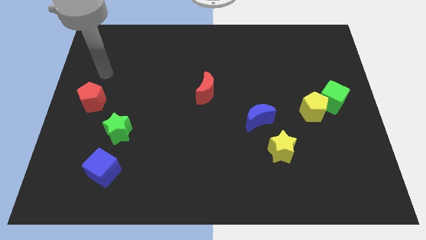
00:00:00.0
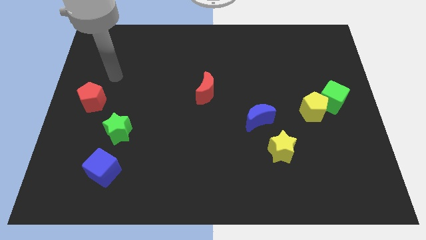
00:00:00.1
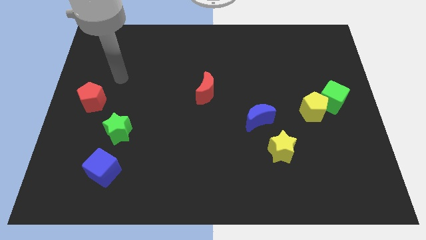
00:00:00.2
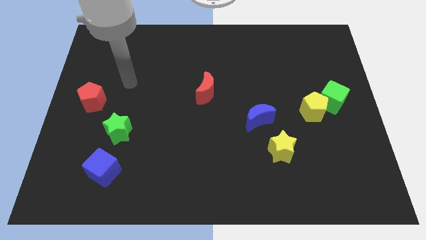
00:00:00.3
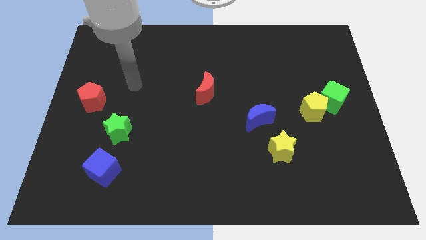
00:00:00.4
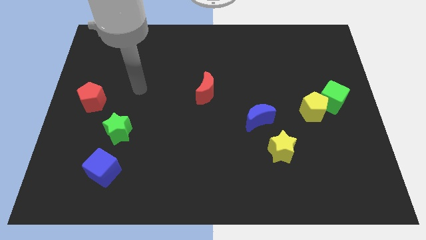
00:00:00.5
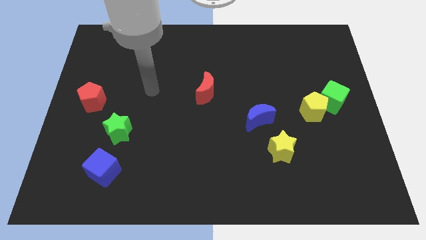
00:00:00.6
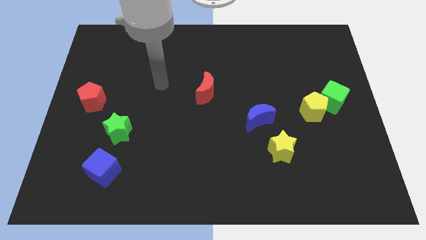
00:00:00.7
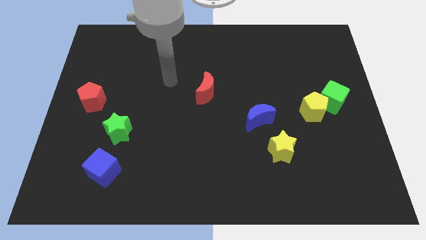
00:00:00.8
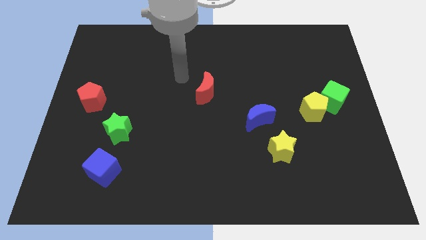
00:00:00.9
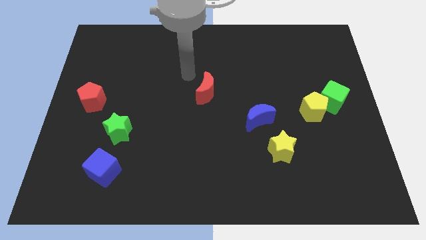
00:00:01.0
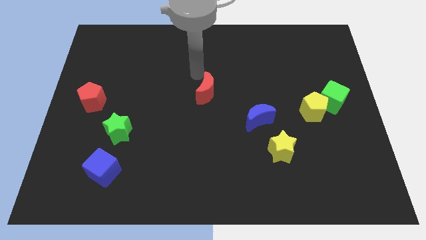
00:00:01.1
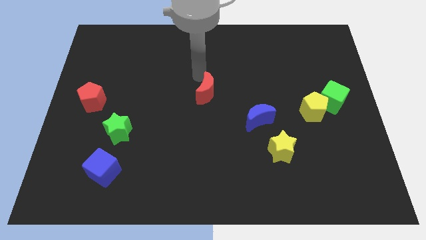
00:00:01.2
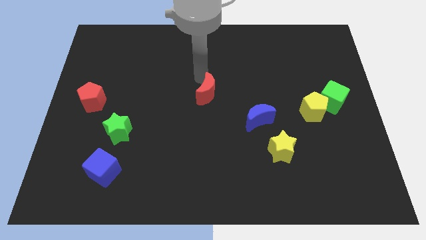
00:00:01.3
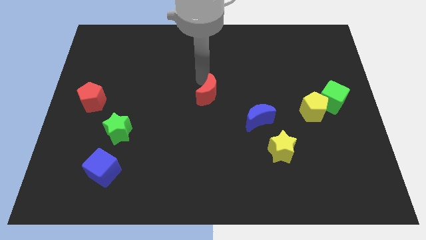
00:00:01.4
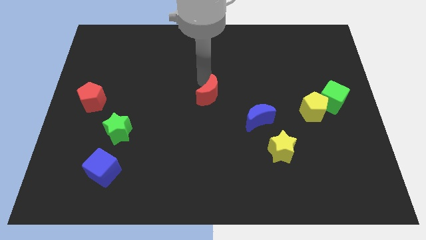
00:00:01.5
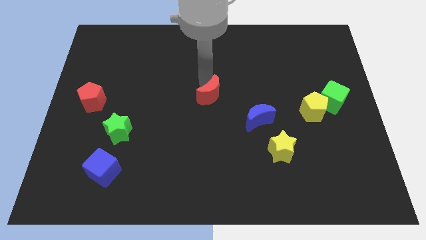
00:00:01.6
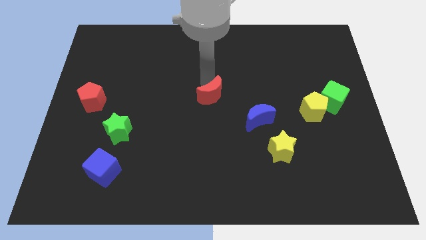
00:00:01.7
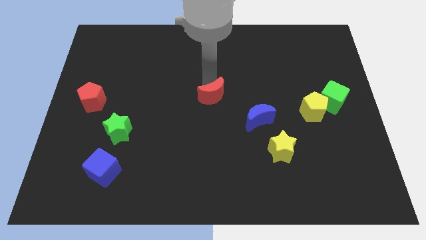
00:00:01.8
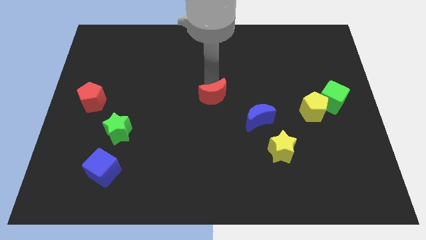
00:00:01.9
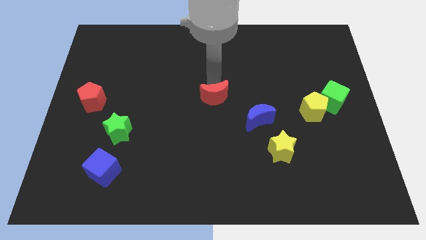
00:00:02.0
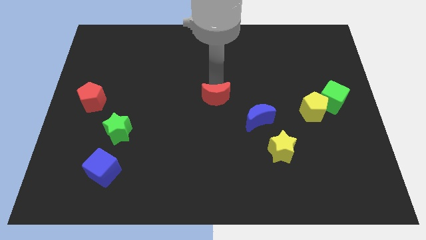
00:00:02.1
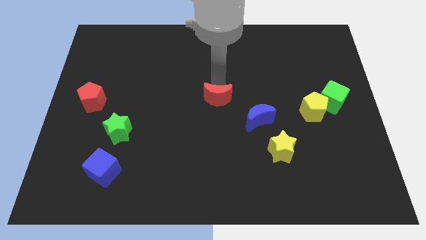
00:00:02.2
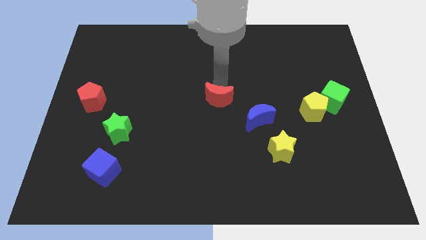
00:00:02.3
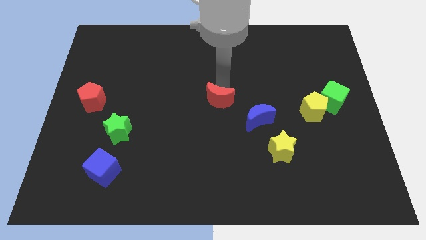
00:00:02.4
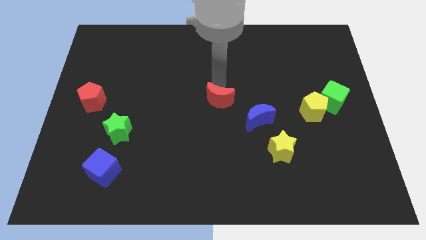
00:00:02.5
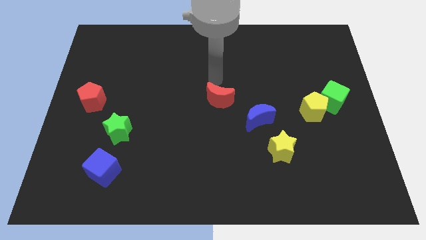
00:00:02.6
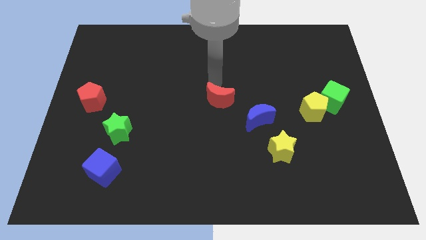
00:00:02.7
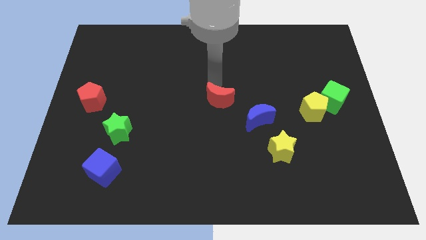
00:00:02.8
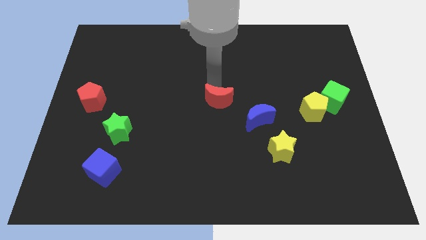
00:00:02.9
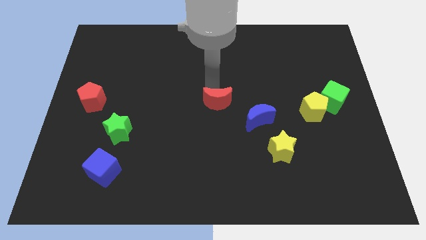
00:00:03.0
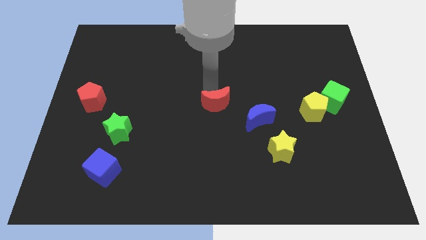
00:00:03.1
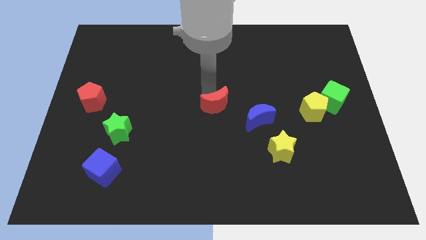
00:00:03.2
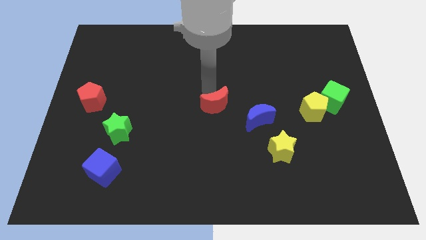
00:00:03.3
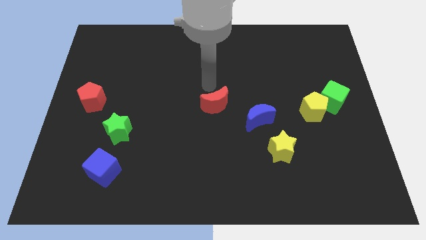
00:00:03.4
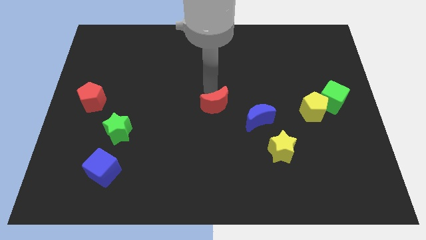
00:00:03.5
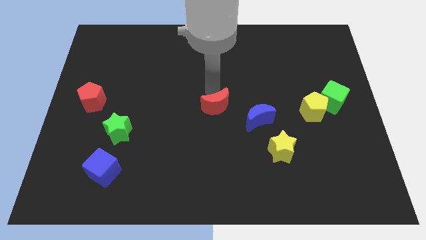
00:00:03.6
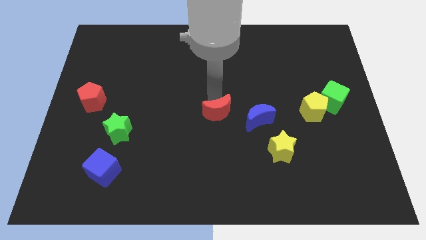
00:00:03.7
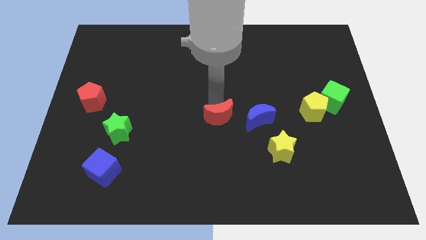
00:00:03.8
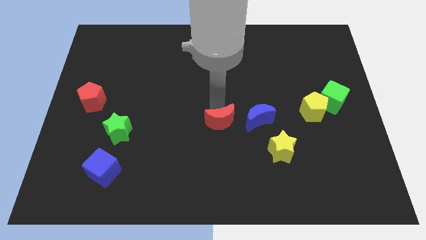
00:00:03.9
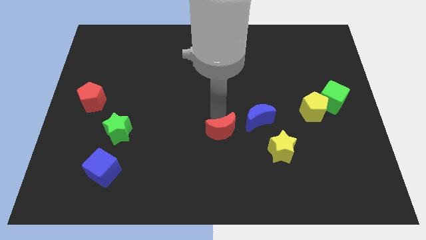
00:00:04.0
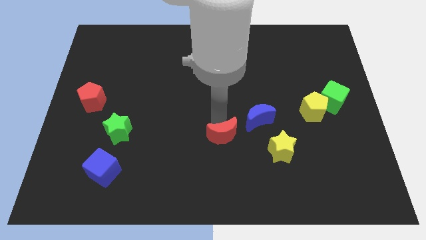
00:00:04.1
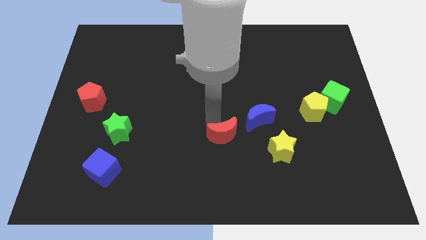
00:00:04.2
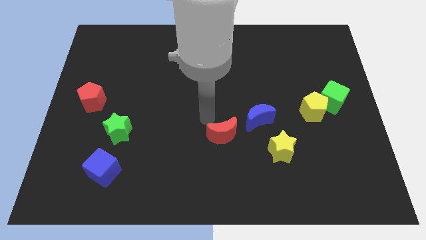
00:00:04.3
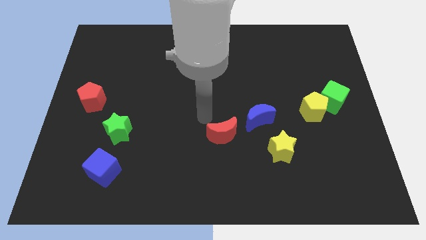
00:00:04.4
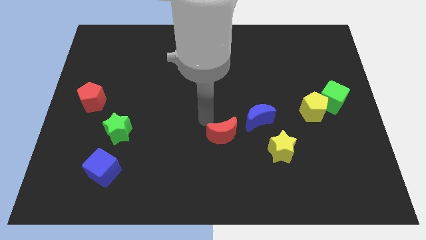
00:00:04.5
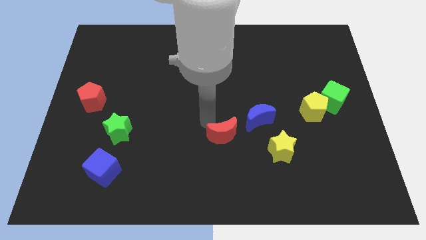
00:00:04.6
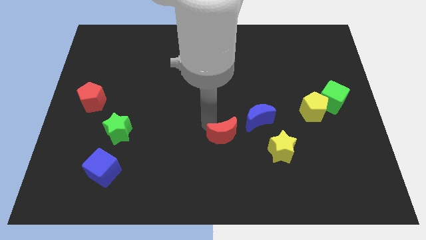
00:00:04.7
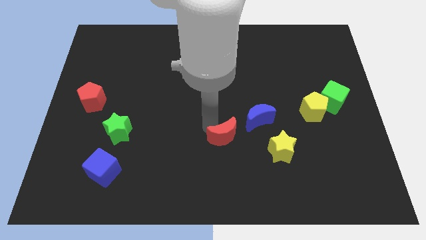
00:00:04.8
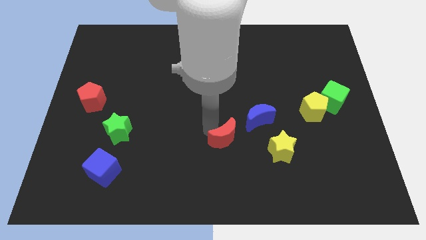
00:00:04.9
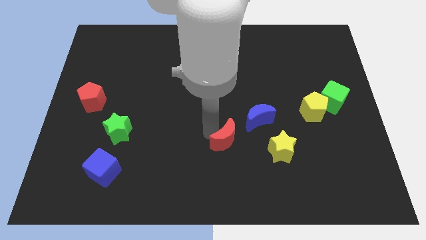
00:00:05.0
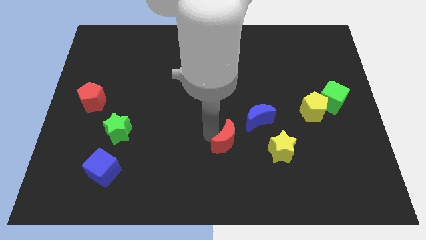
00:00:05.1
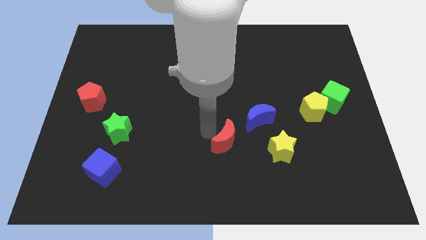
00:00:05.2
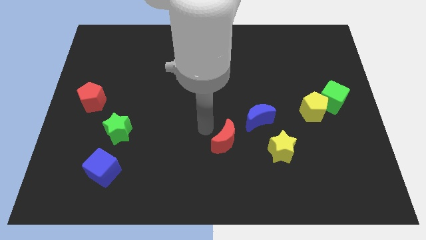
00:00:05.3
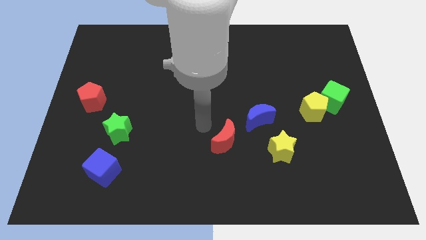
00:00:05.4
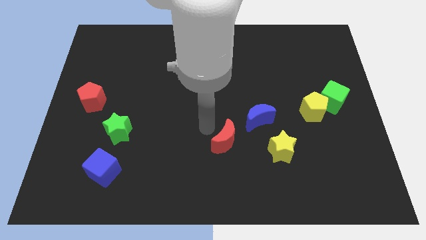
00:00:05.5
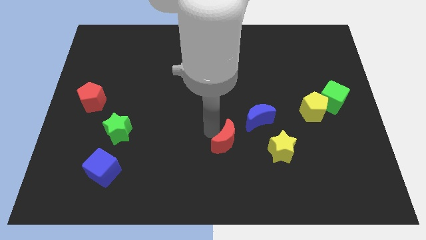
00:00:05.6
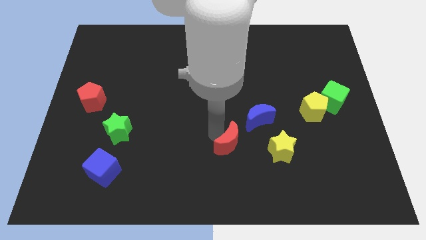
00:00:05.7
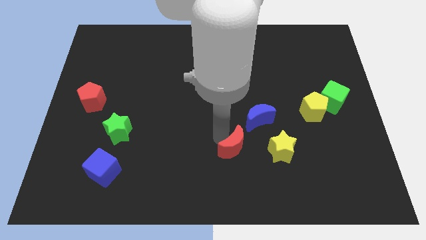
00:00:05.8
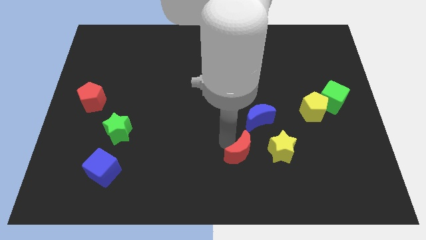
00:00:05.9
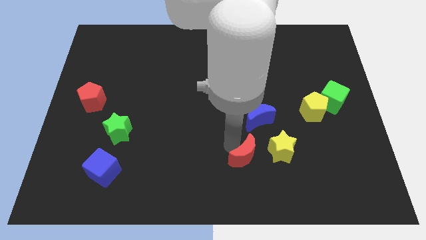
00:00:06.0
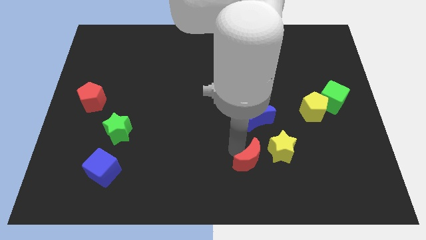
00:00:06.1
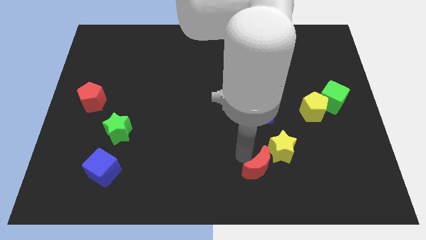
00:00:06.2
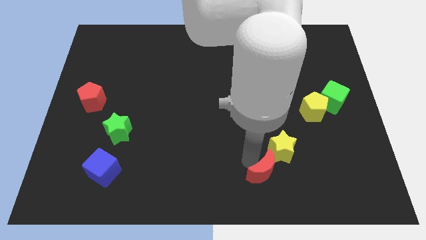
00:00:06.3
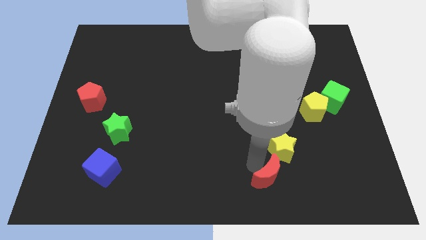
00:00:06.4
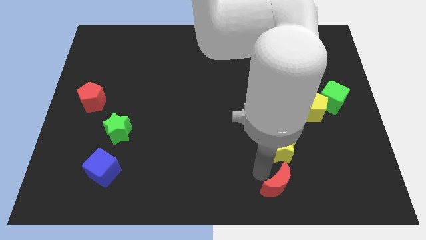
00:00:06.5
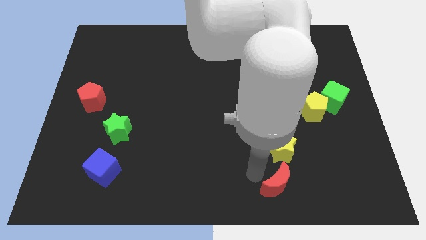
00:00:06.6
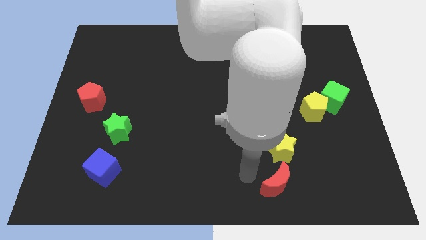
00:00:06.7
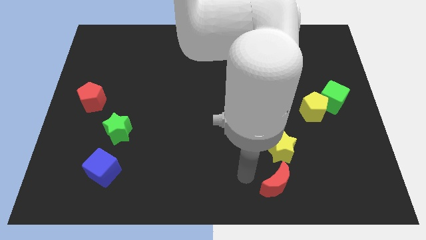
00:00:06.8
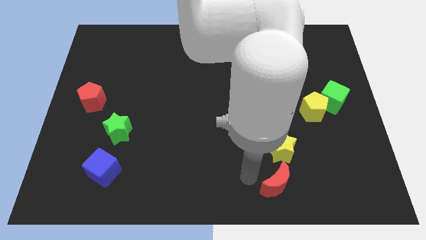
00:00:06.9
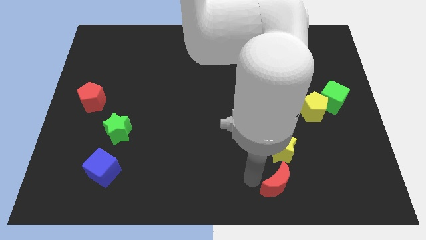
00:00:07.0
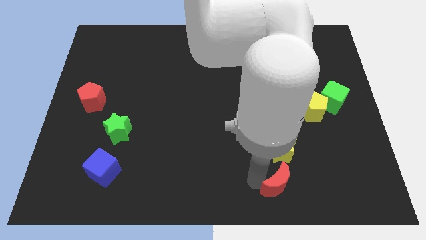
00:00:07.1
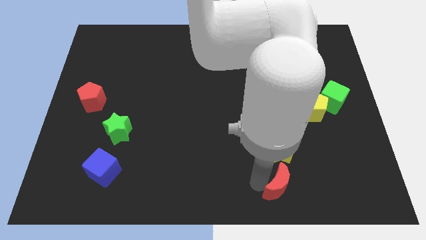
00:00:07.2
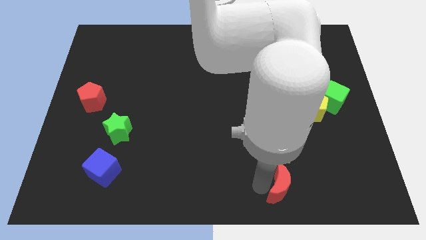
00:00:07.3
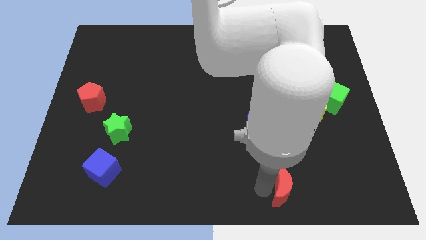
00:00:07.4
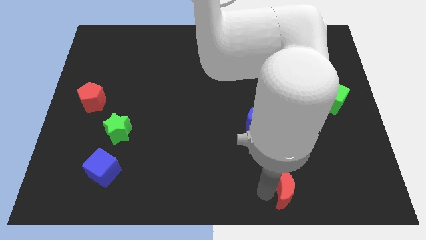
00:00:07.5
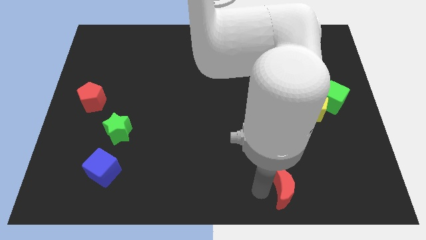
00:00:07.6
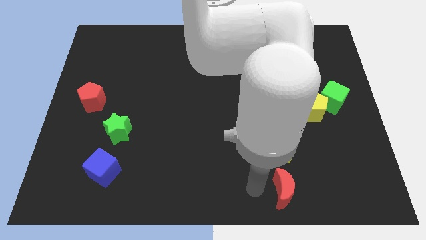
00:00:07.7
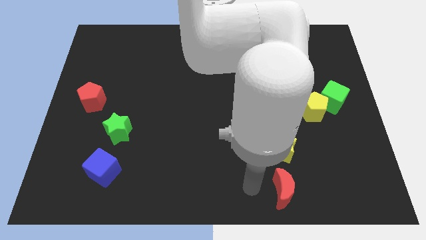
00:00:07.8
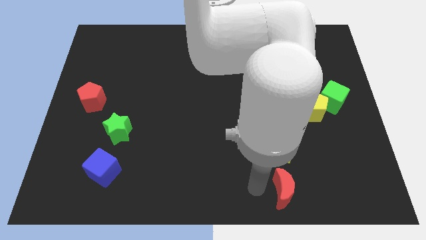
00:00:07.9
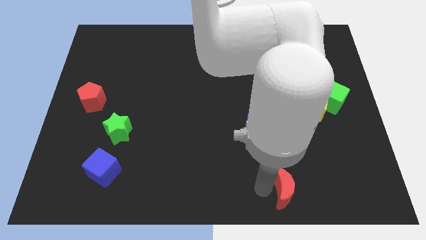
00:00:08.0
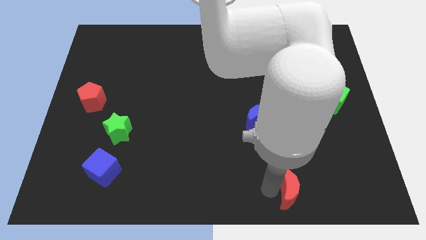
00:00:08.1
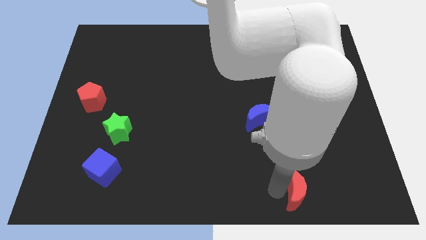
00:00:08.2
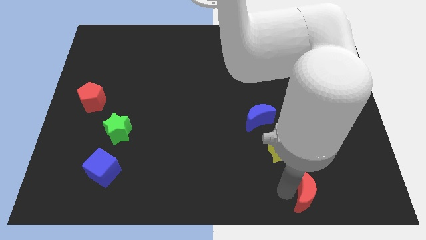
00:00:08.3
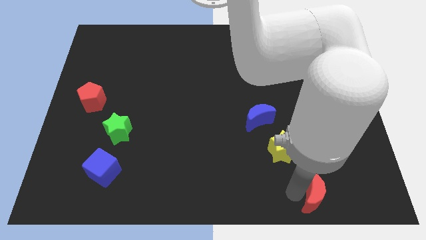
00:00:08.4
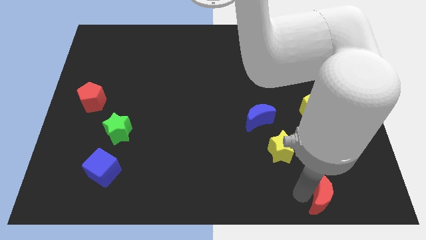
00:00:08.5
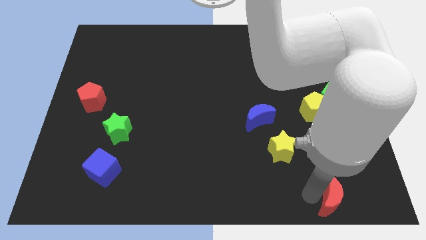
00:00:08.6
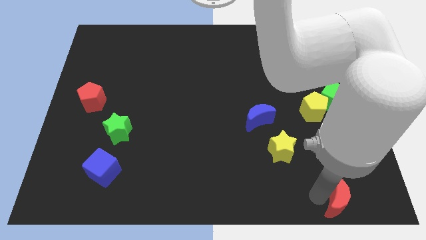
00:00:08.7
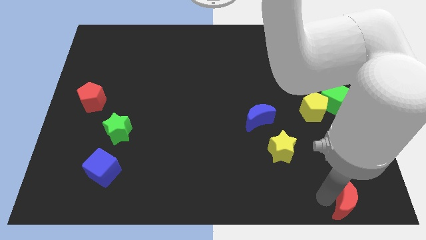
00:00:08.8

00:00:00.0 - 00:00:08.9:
move the red moon to the bottom right corner
